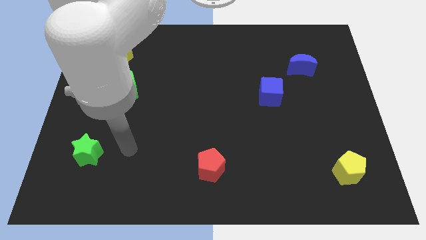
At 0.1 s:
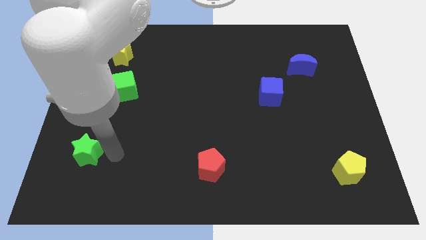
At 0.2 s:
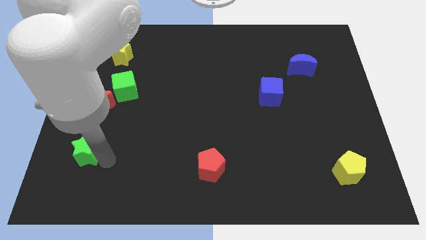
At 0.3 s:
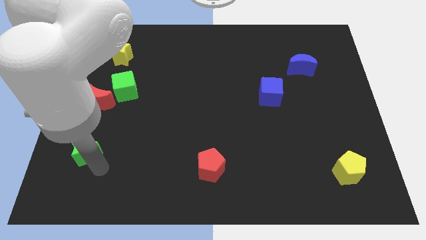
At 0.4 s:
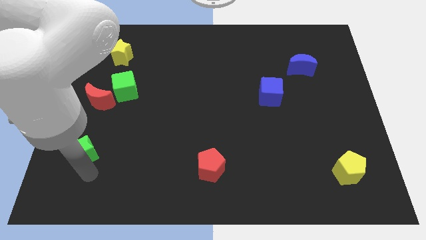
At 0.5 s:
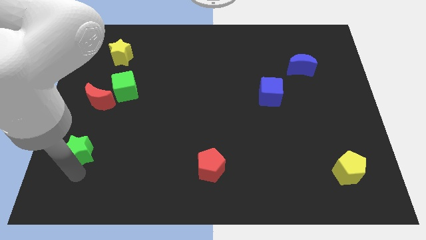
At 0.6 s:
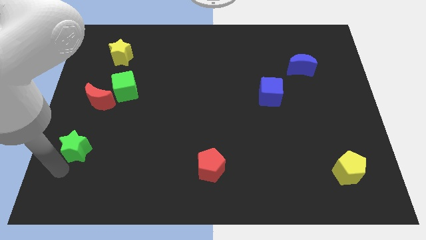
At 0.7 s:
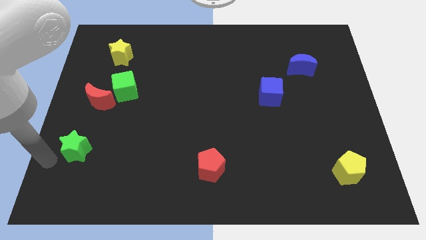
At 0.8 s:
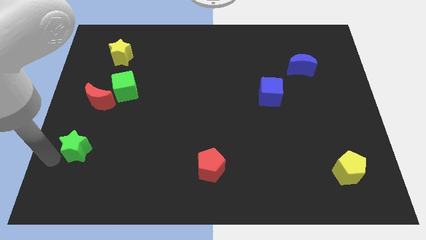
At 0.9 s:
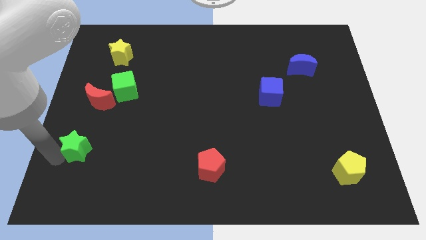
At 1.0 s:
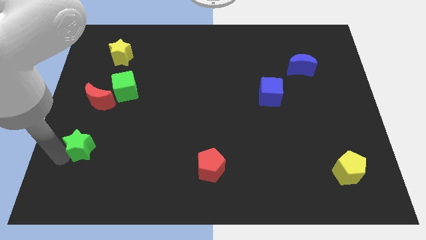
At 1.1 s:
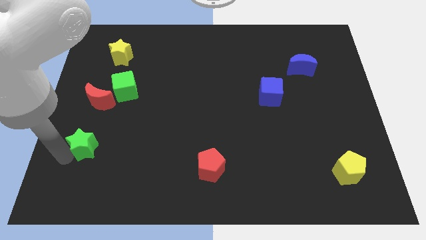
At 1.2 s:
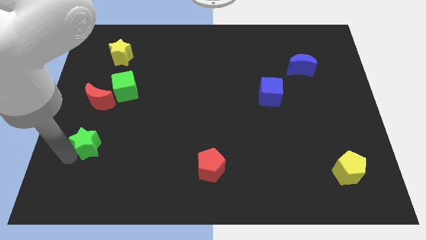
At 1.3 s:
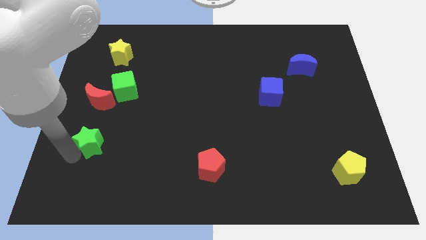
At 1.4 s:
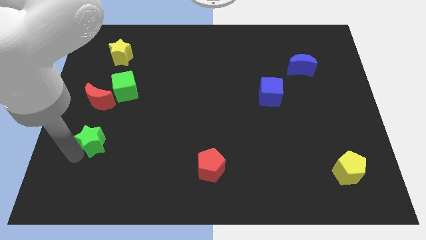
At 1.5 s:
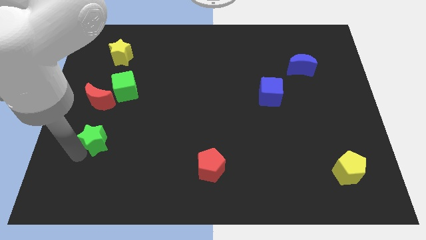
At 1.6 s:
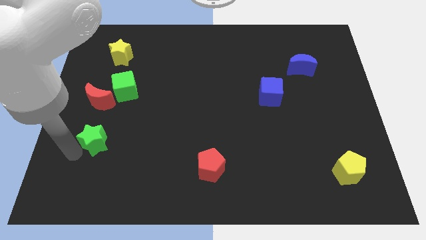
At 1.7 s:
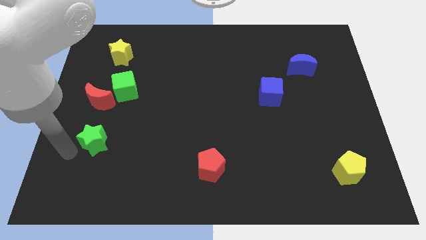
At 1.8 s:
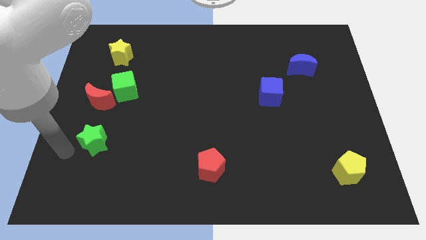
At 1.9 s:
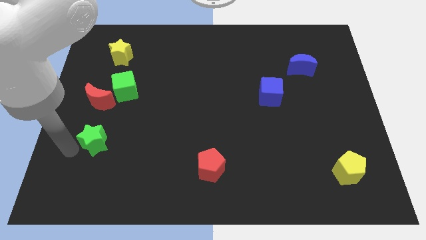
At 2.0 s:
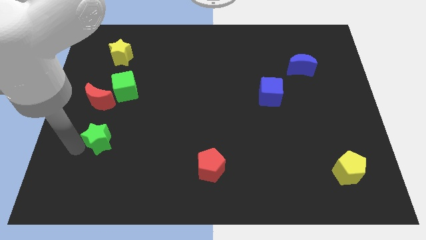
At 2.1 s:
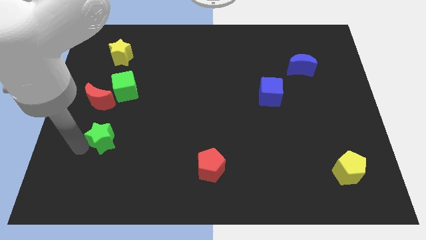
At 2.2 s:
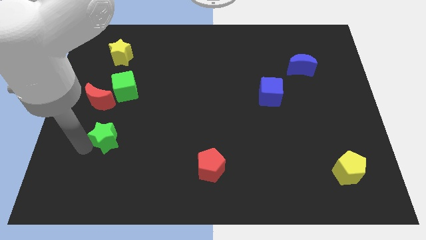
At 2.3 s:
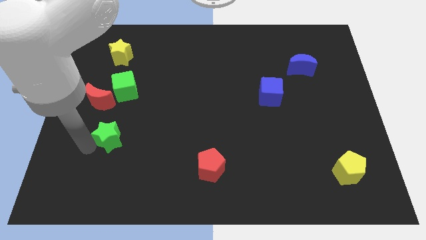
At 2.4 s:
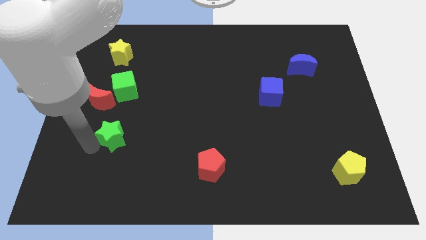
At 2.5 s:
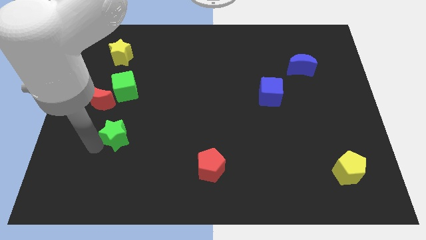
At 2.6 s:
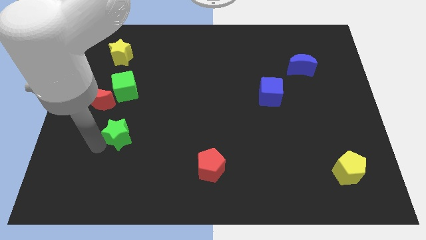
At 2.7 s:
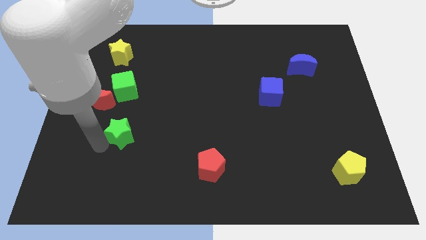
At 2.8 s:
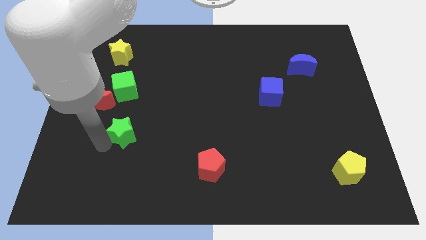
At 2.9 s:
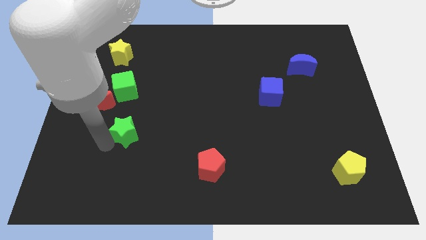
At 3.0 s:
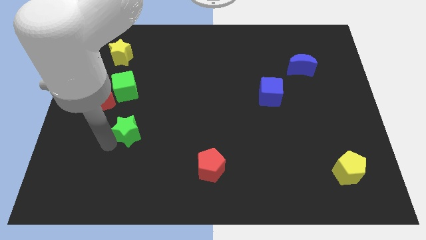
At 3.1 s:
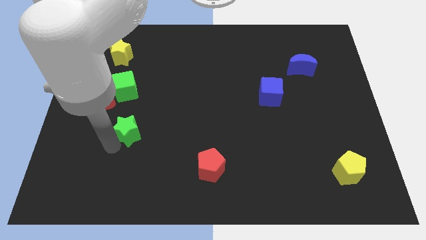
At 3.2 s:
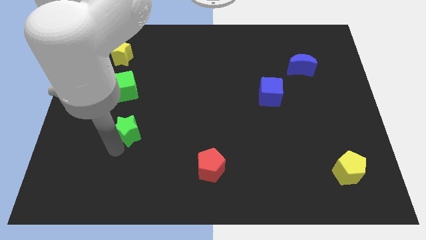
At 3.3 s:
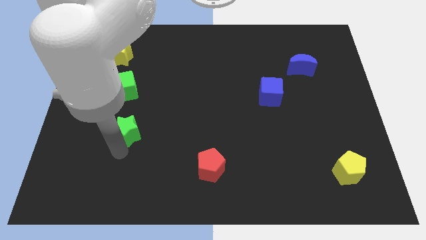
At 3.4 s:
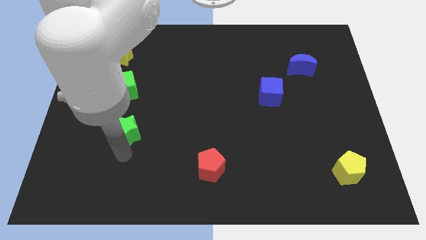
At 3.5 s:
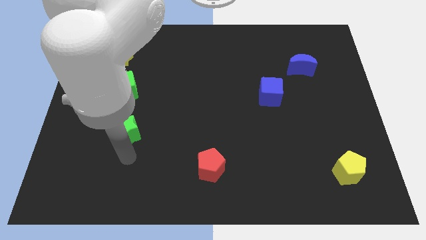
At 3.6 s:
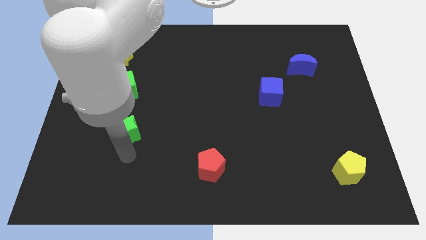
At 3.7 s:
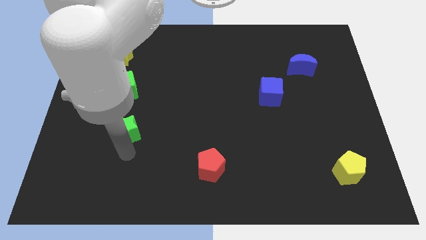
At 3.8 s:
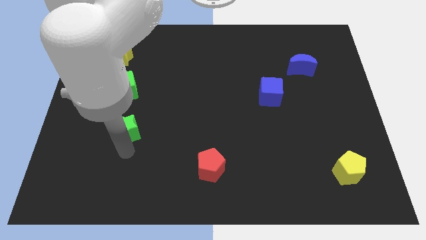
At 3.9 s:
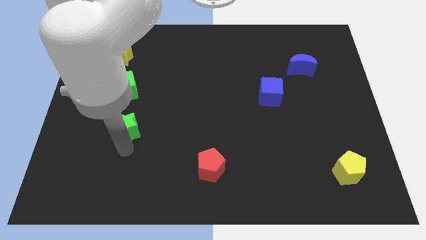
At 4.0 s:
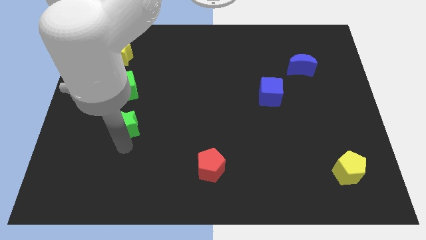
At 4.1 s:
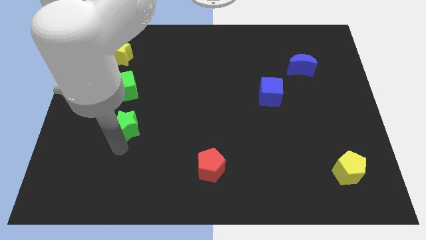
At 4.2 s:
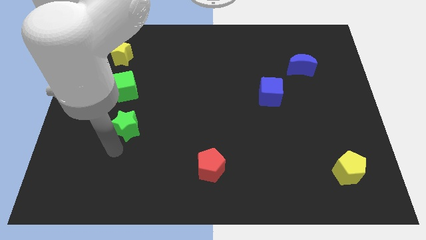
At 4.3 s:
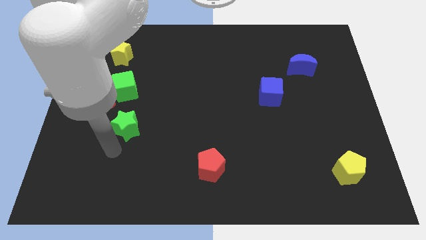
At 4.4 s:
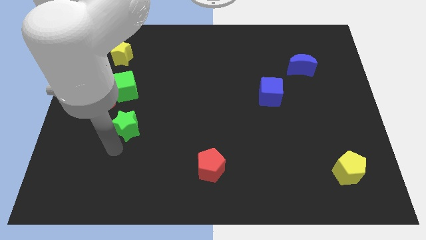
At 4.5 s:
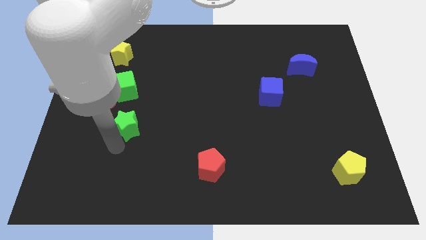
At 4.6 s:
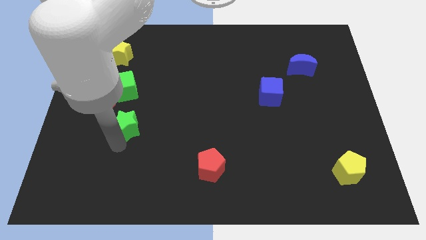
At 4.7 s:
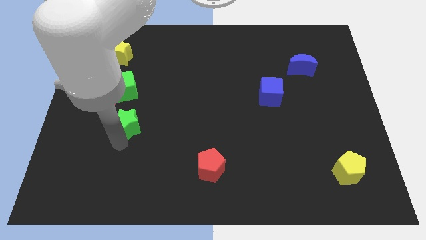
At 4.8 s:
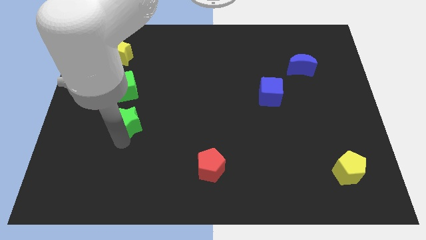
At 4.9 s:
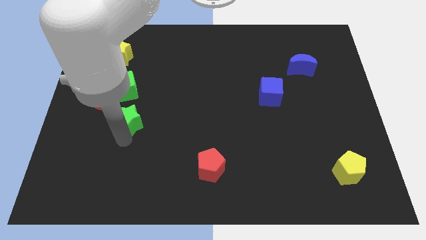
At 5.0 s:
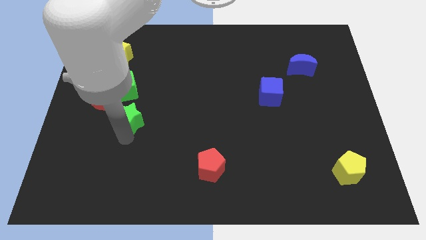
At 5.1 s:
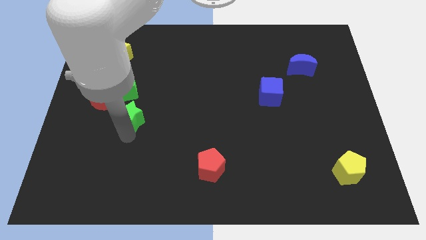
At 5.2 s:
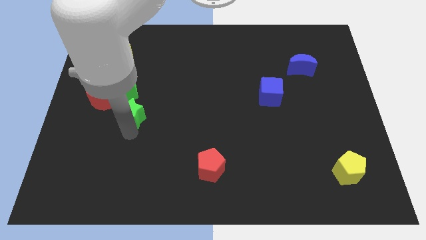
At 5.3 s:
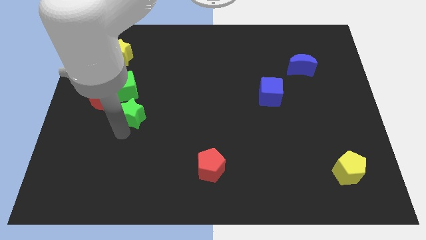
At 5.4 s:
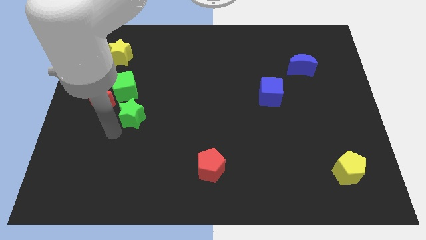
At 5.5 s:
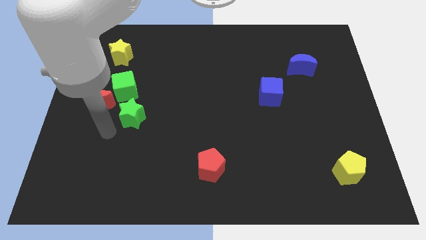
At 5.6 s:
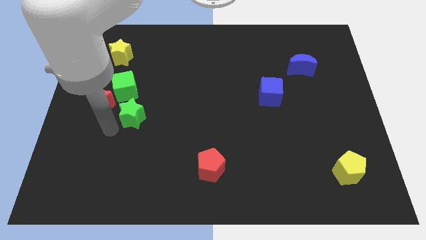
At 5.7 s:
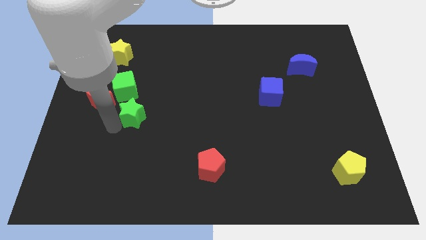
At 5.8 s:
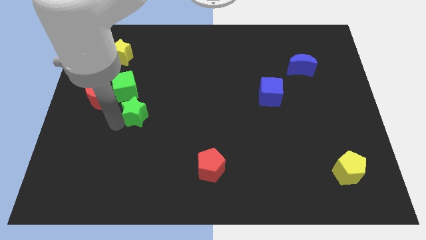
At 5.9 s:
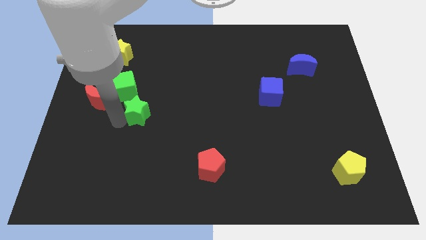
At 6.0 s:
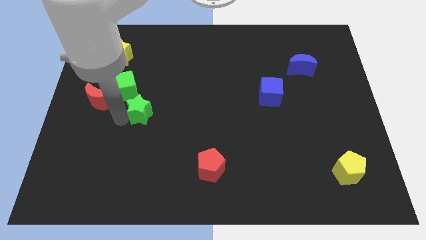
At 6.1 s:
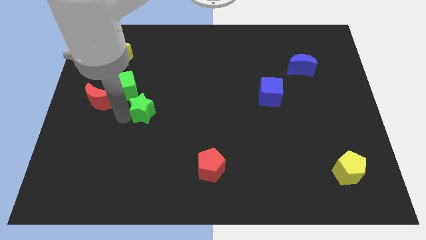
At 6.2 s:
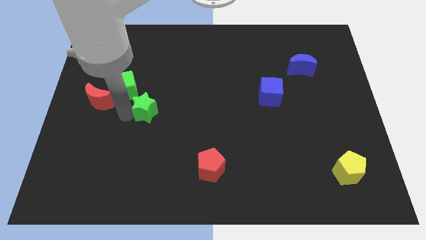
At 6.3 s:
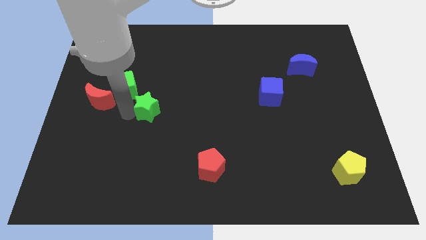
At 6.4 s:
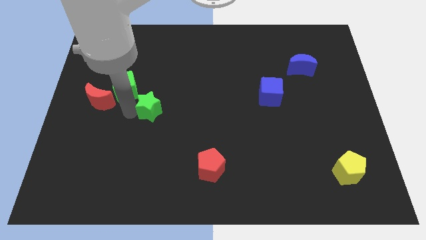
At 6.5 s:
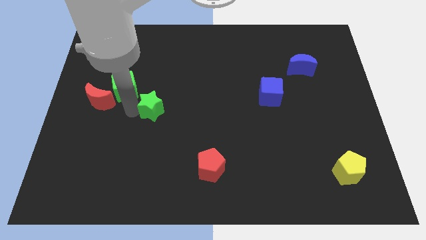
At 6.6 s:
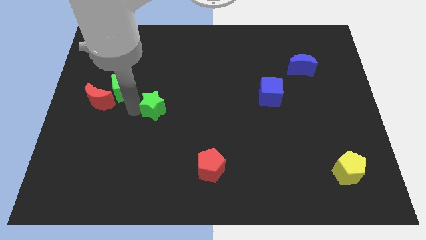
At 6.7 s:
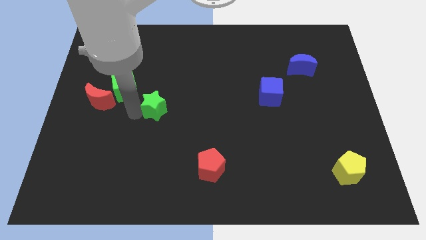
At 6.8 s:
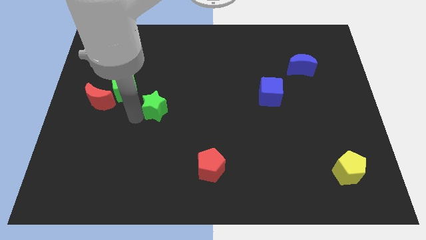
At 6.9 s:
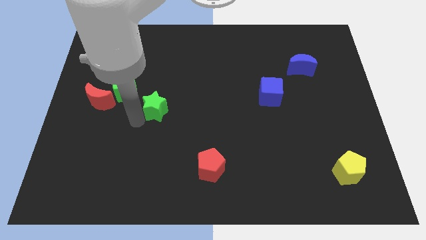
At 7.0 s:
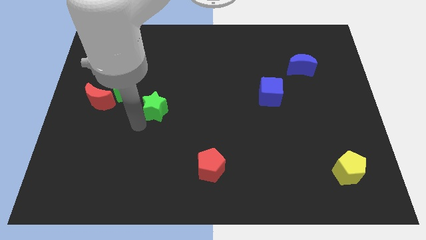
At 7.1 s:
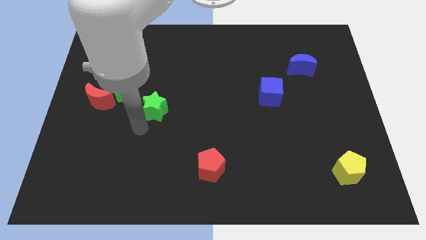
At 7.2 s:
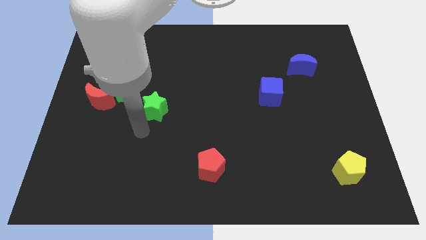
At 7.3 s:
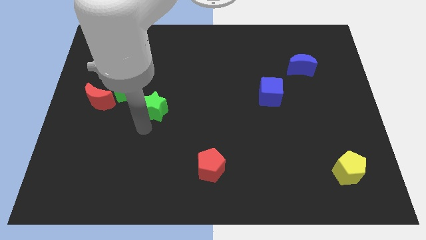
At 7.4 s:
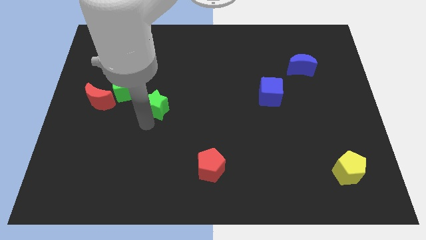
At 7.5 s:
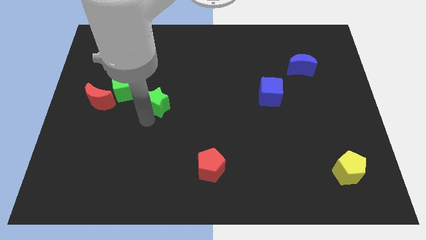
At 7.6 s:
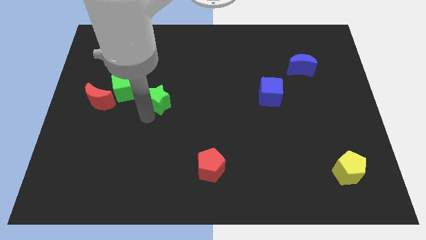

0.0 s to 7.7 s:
move the green star upwards and to the right

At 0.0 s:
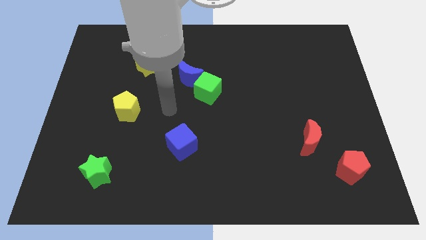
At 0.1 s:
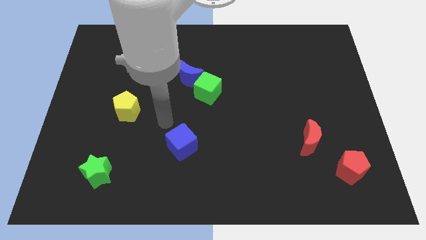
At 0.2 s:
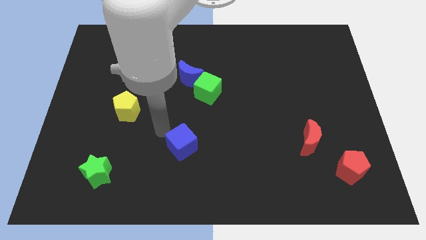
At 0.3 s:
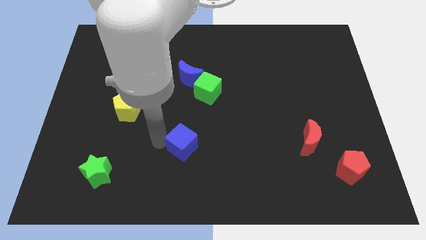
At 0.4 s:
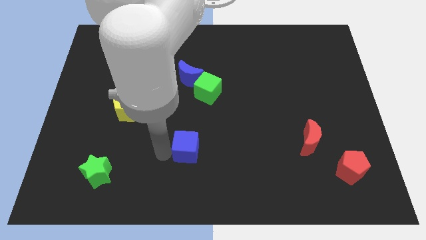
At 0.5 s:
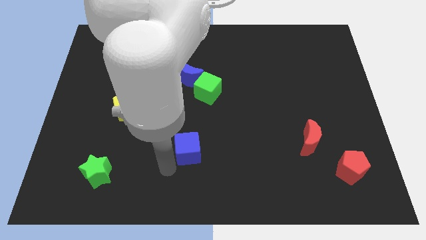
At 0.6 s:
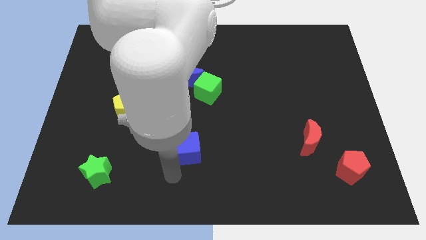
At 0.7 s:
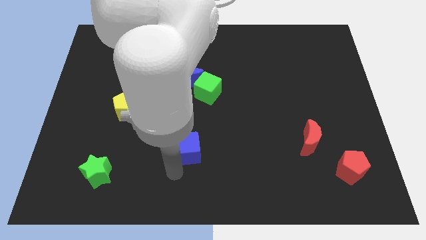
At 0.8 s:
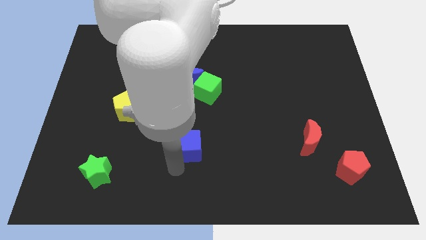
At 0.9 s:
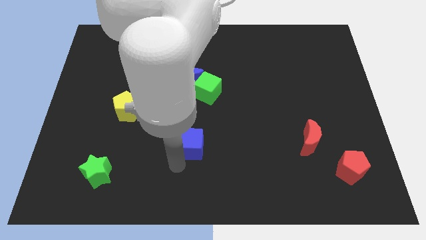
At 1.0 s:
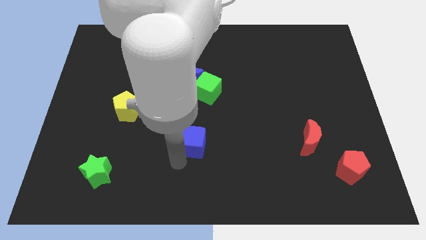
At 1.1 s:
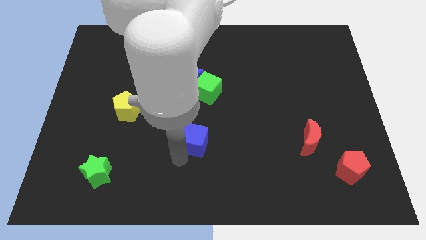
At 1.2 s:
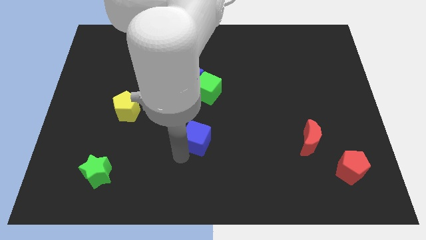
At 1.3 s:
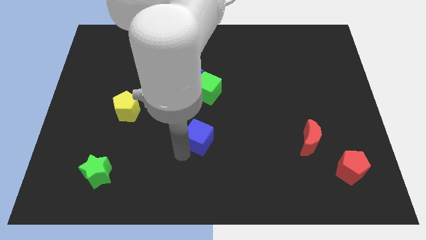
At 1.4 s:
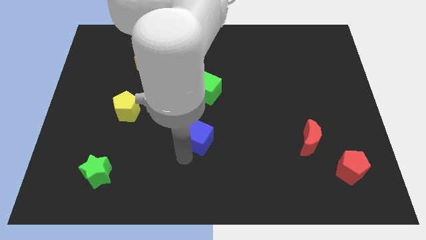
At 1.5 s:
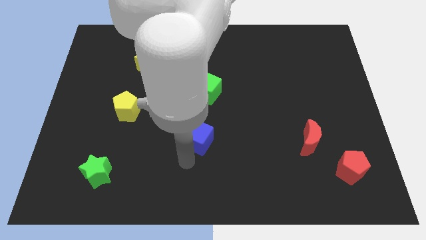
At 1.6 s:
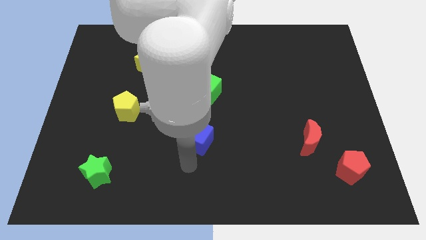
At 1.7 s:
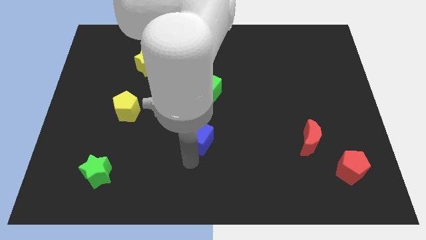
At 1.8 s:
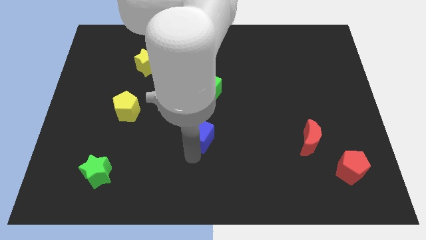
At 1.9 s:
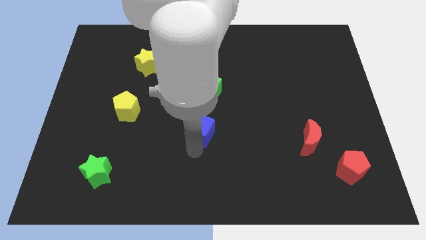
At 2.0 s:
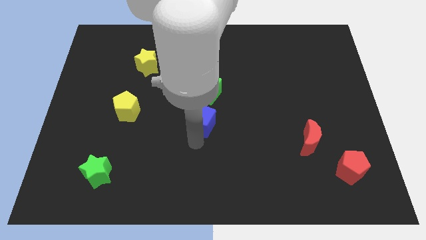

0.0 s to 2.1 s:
slightly slide the blue cube diagonally upwards and to the right
